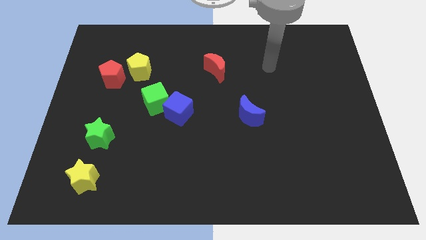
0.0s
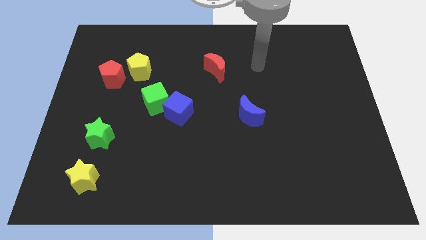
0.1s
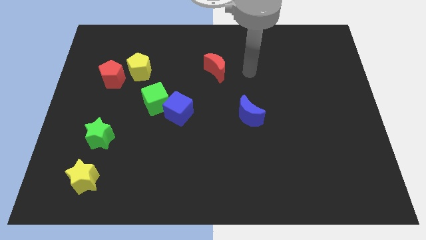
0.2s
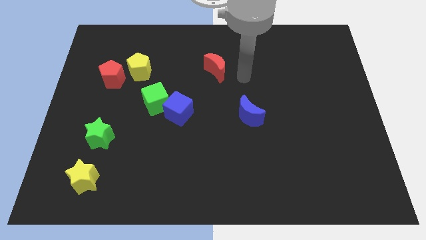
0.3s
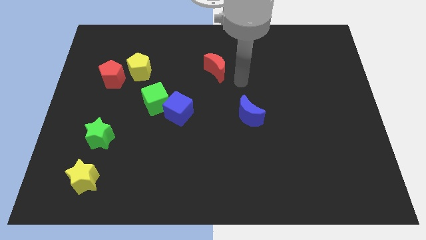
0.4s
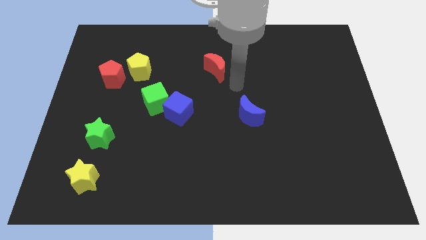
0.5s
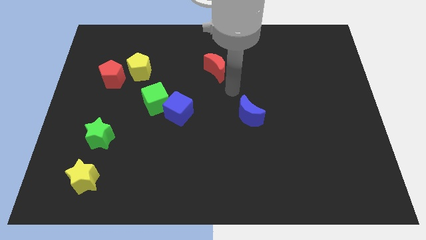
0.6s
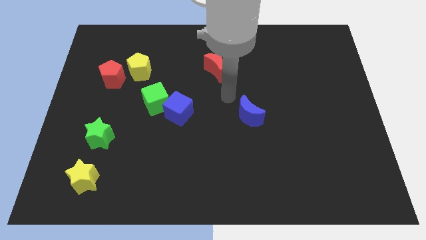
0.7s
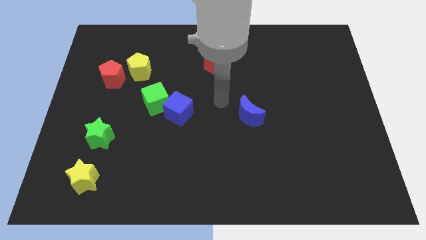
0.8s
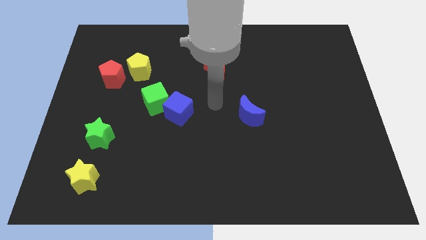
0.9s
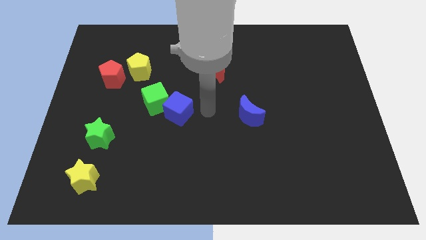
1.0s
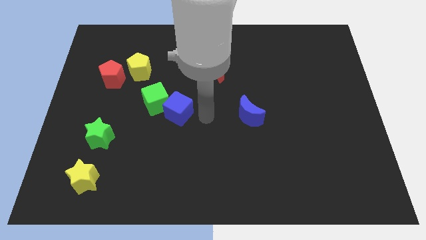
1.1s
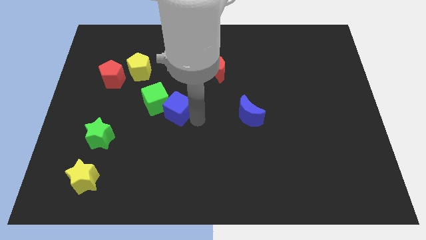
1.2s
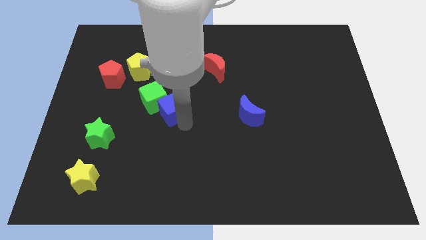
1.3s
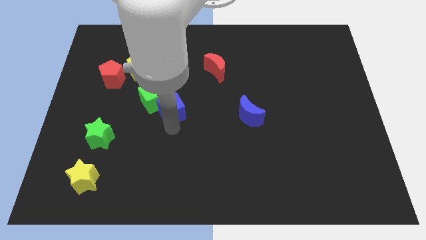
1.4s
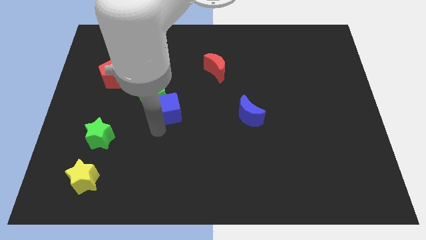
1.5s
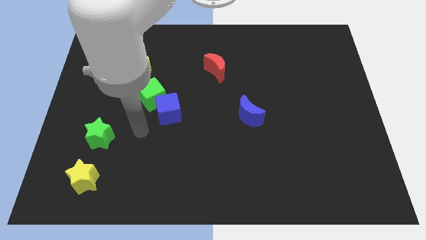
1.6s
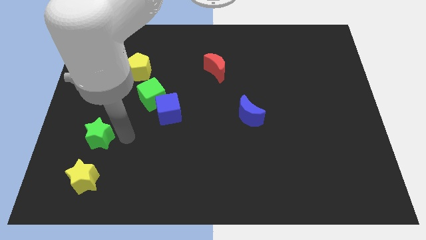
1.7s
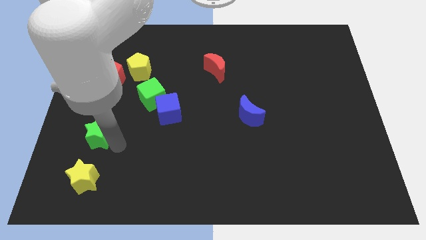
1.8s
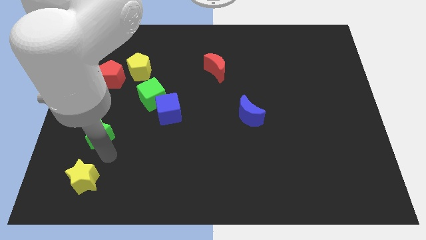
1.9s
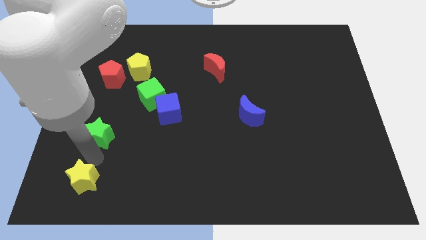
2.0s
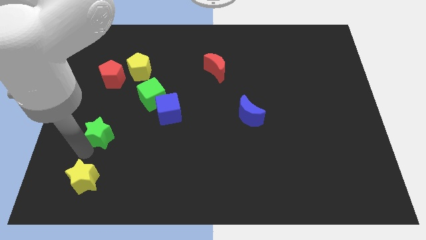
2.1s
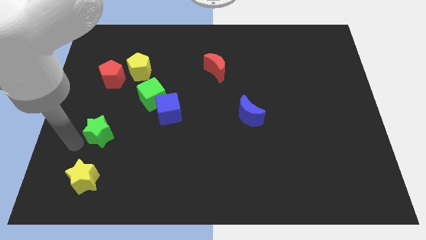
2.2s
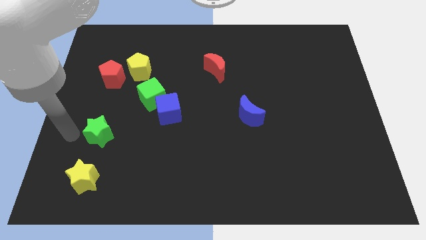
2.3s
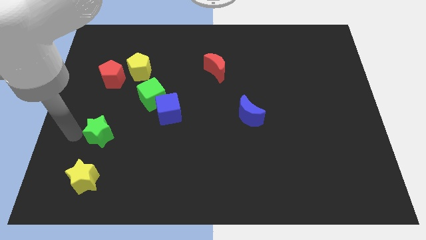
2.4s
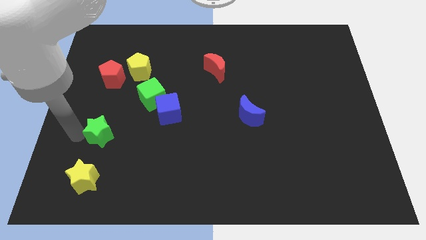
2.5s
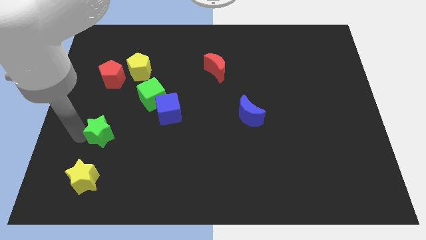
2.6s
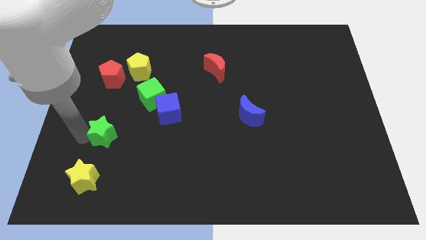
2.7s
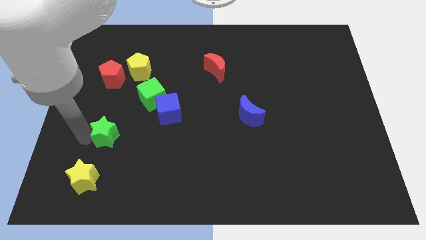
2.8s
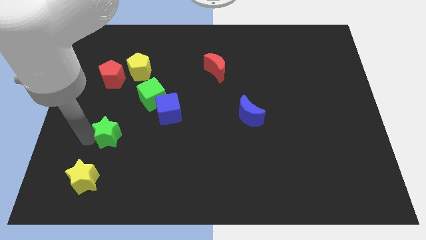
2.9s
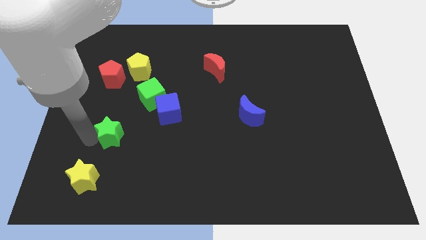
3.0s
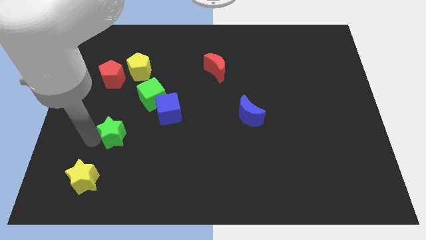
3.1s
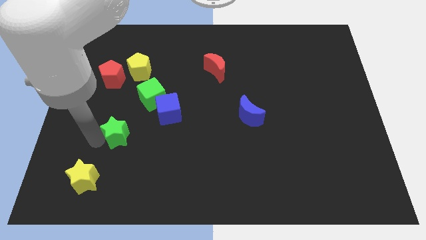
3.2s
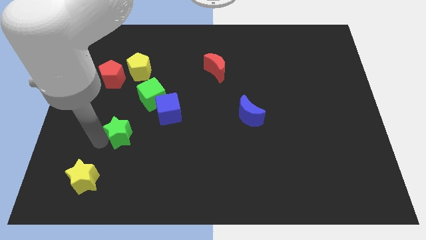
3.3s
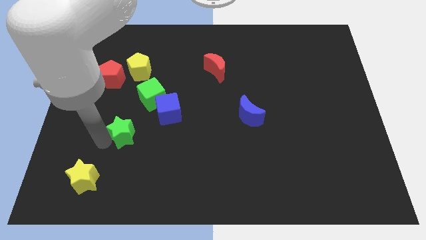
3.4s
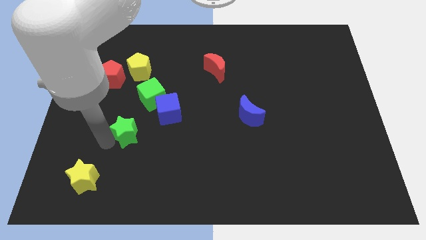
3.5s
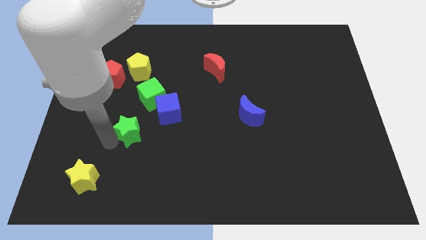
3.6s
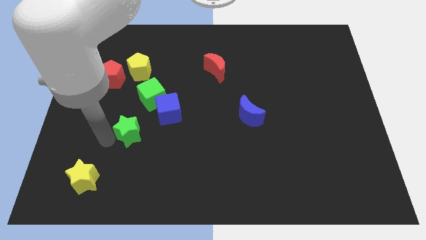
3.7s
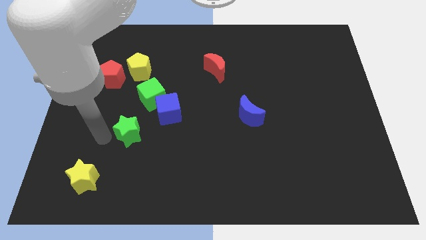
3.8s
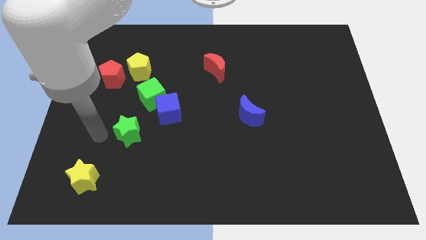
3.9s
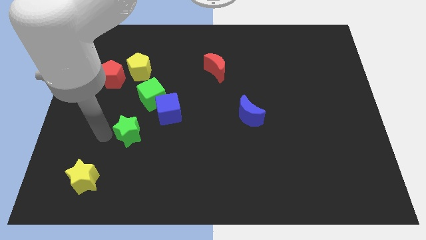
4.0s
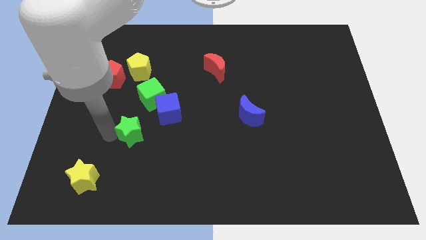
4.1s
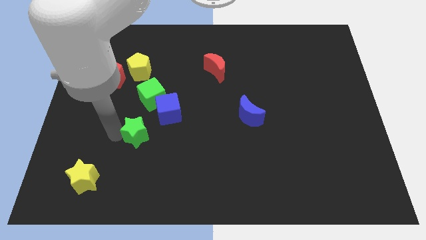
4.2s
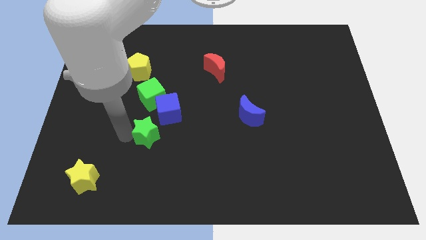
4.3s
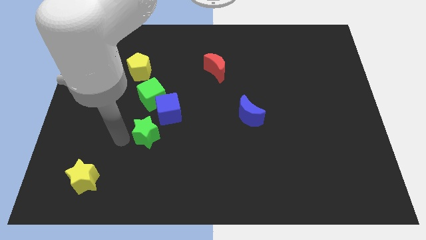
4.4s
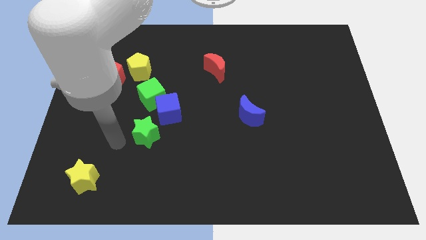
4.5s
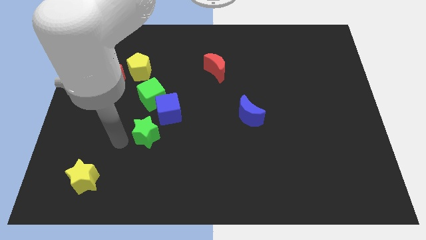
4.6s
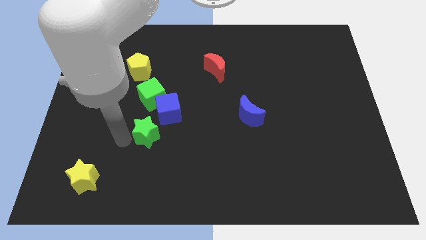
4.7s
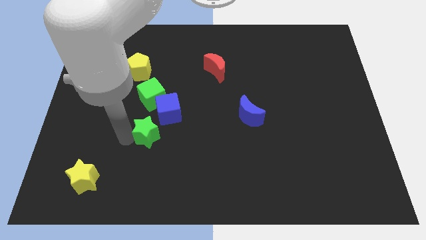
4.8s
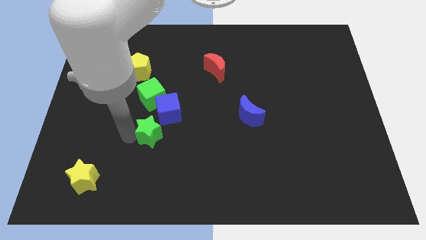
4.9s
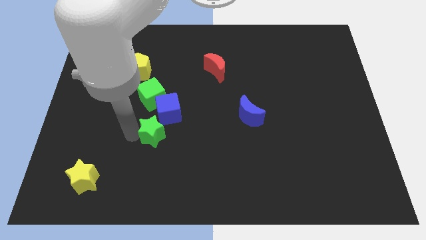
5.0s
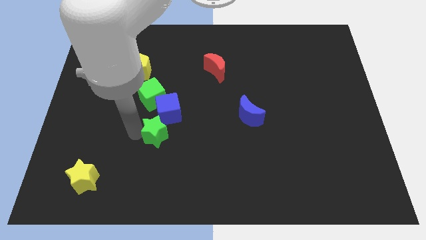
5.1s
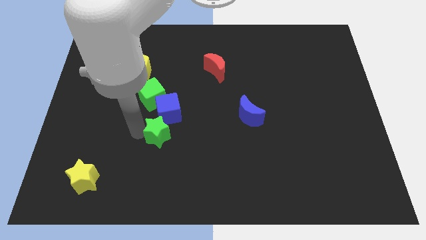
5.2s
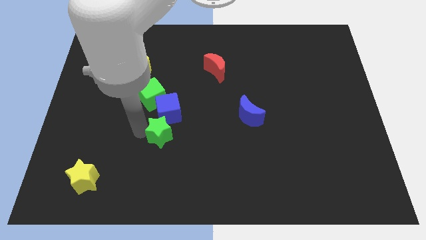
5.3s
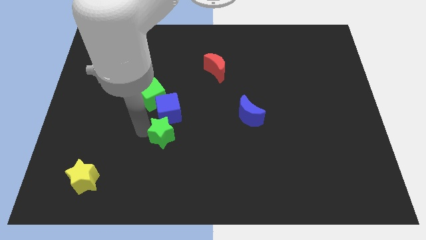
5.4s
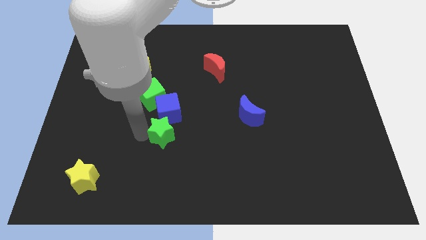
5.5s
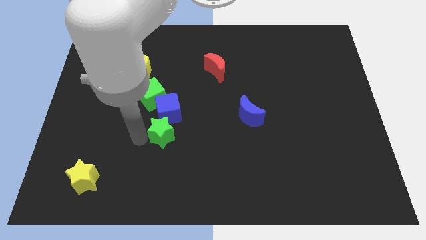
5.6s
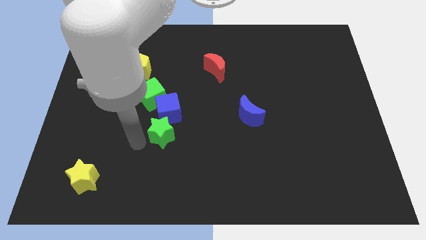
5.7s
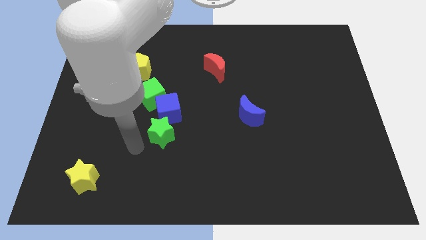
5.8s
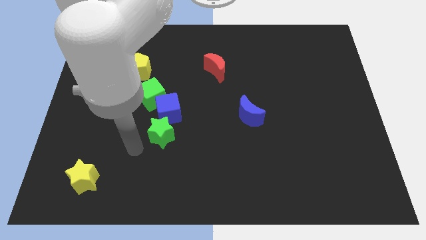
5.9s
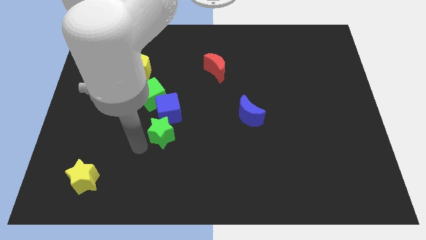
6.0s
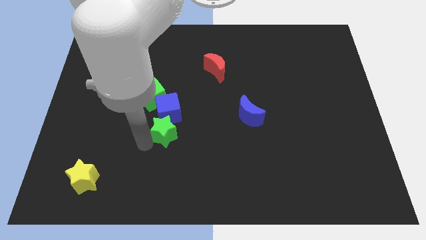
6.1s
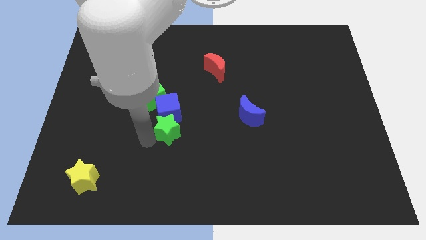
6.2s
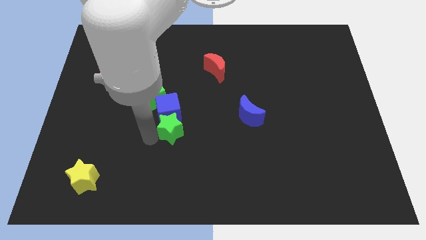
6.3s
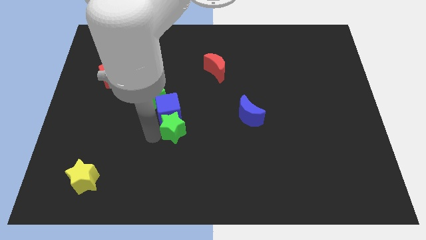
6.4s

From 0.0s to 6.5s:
move the green star to the middle
